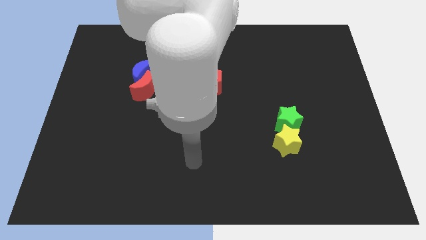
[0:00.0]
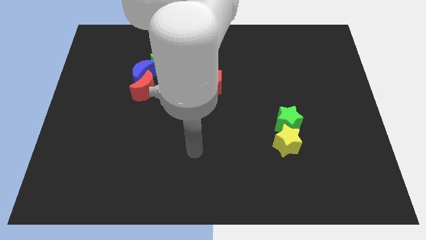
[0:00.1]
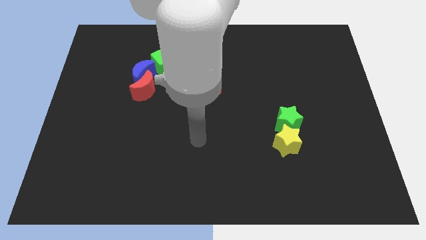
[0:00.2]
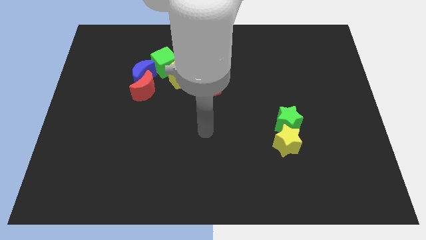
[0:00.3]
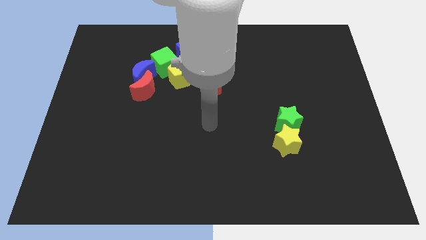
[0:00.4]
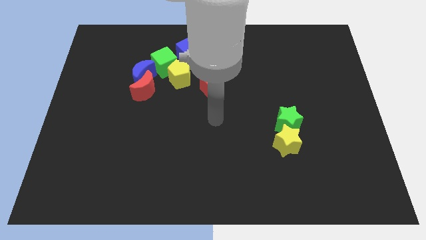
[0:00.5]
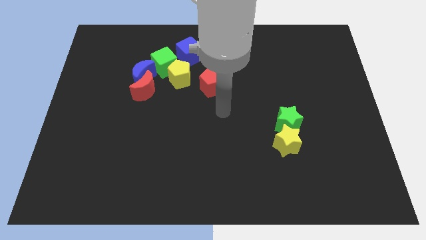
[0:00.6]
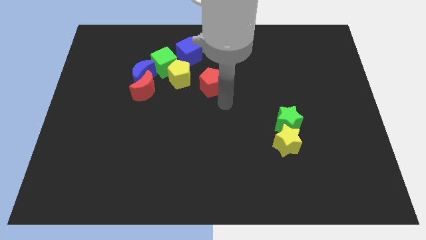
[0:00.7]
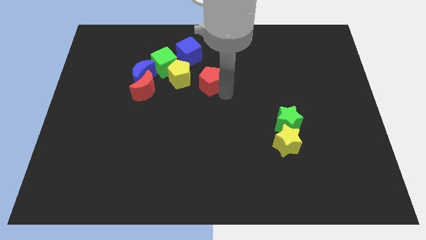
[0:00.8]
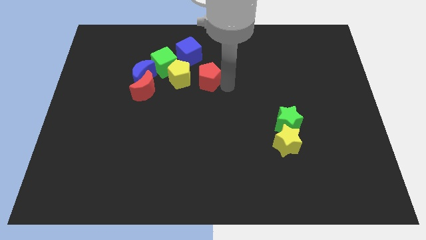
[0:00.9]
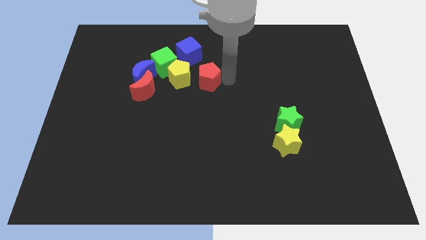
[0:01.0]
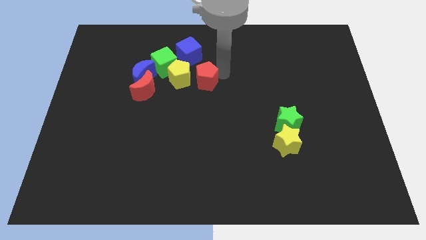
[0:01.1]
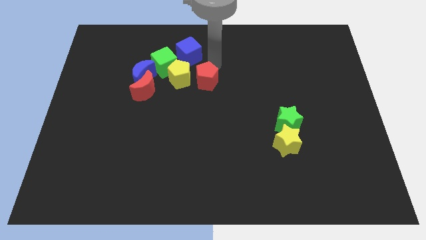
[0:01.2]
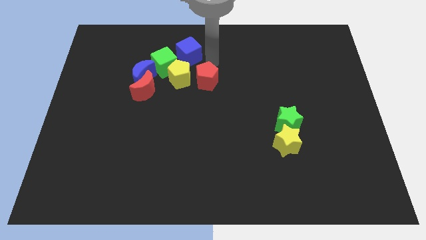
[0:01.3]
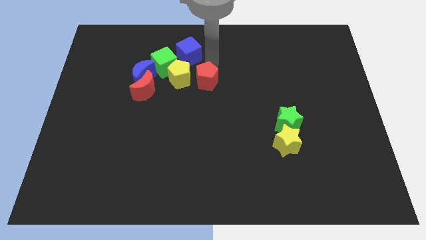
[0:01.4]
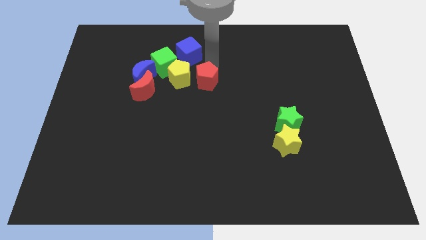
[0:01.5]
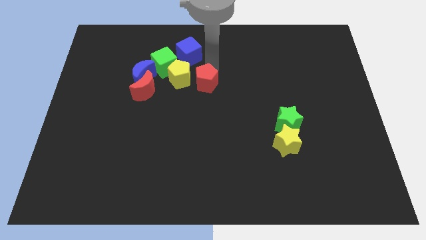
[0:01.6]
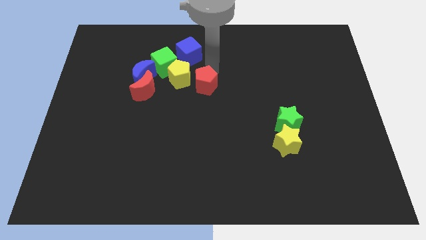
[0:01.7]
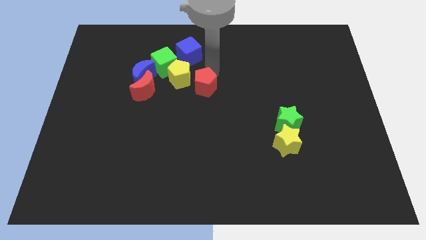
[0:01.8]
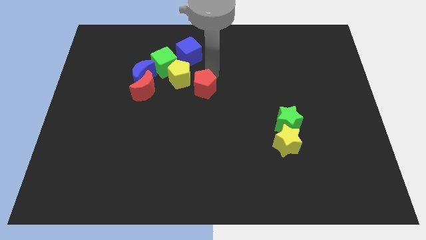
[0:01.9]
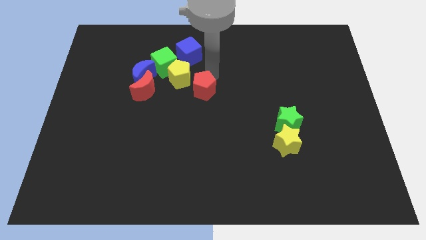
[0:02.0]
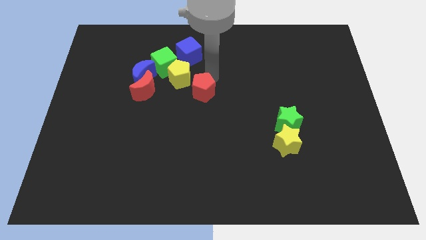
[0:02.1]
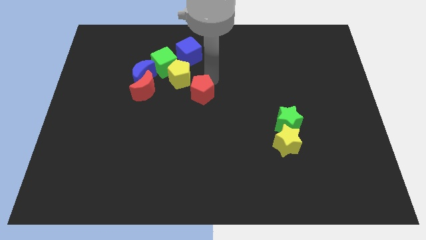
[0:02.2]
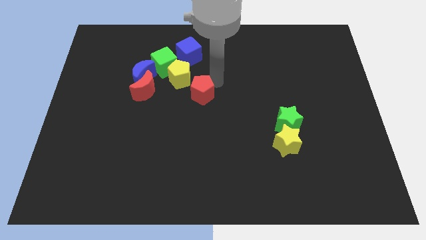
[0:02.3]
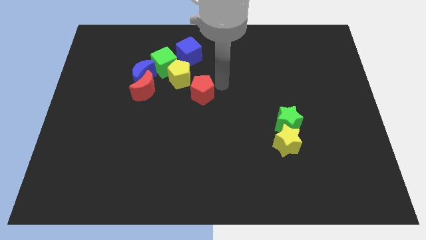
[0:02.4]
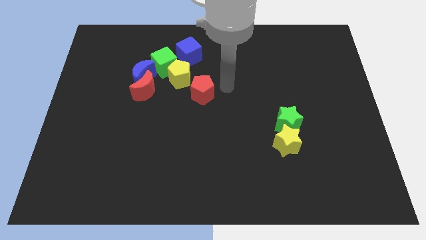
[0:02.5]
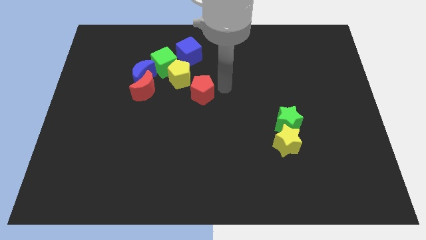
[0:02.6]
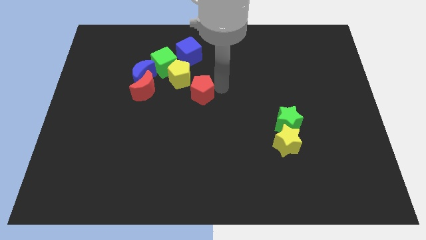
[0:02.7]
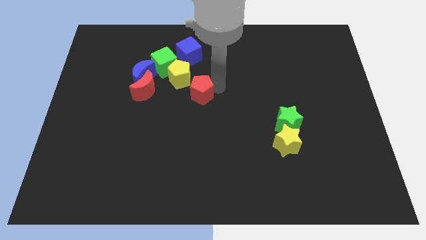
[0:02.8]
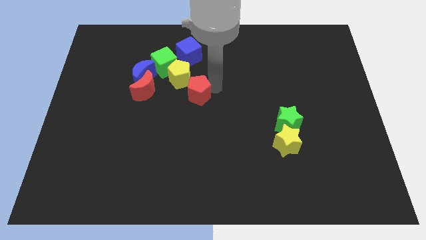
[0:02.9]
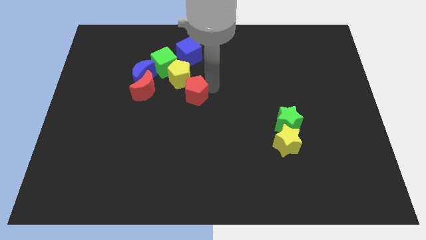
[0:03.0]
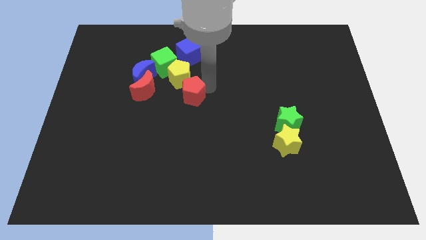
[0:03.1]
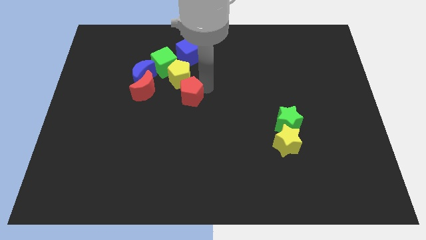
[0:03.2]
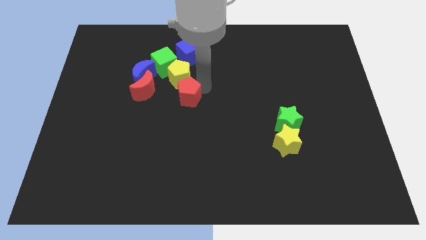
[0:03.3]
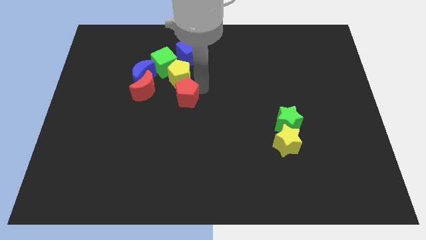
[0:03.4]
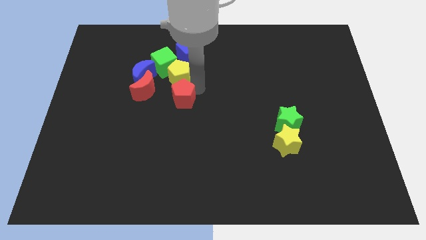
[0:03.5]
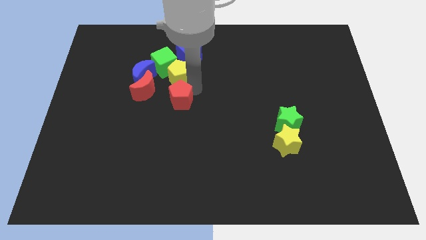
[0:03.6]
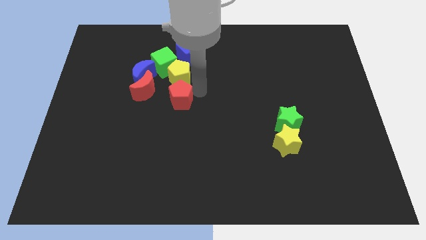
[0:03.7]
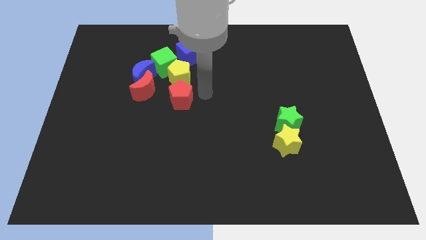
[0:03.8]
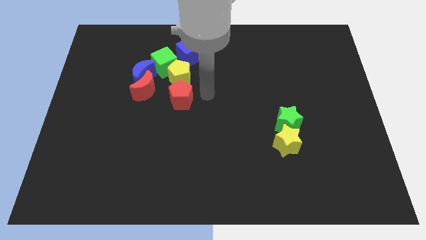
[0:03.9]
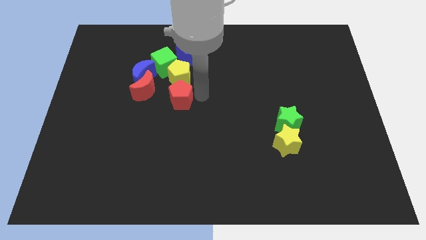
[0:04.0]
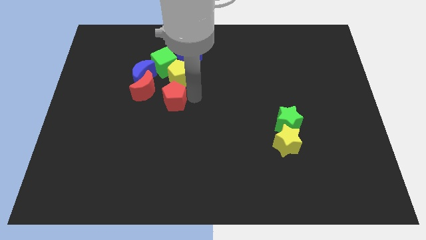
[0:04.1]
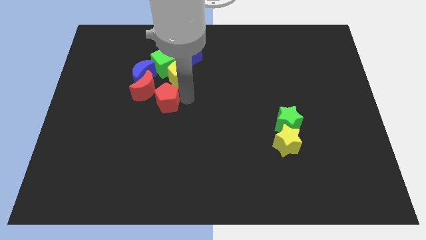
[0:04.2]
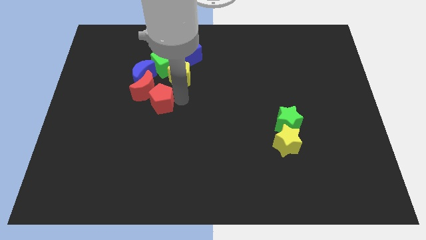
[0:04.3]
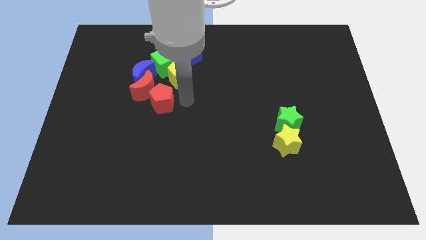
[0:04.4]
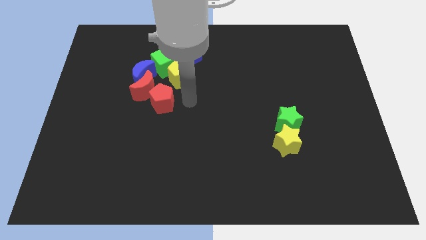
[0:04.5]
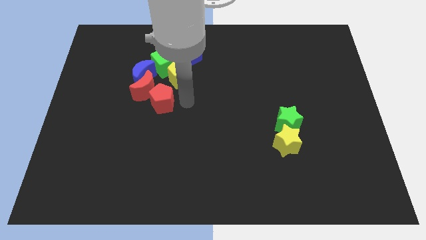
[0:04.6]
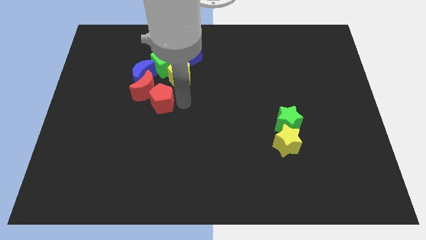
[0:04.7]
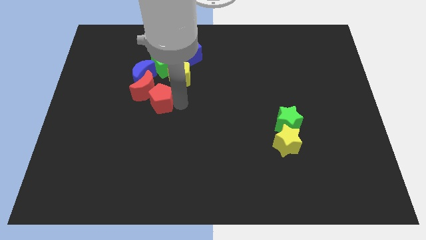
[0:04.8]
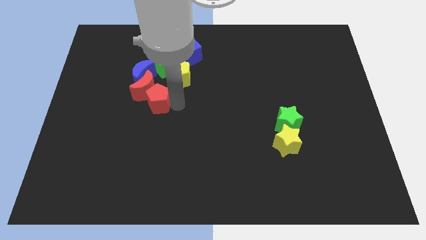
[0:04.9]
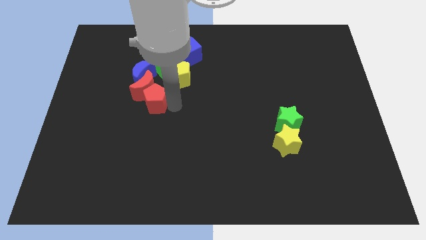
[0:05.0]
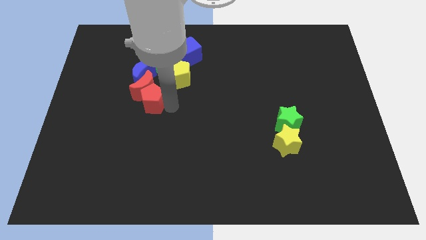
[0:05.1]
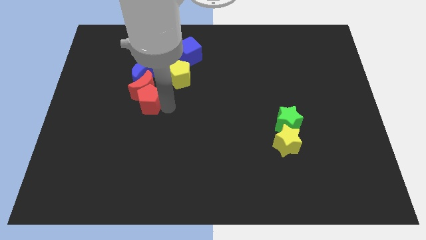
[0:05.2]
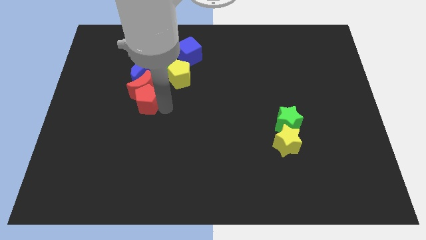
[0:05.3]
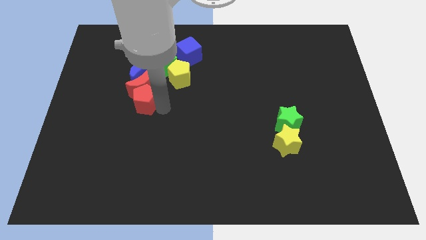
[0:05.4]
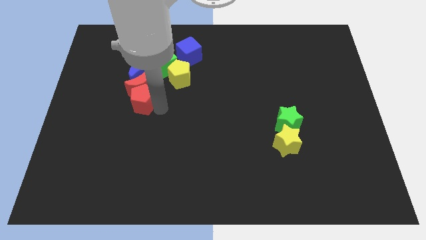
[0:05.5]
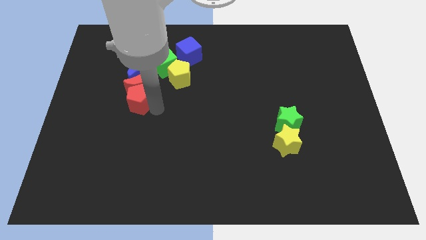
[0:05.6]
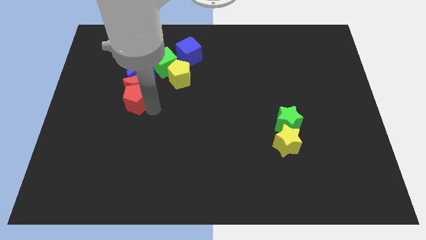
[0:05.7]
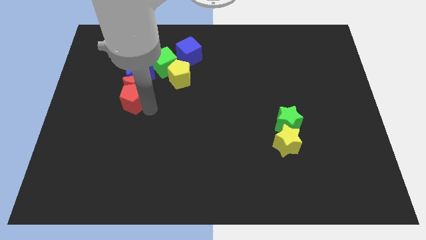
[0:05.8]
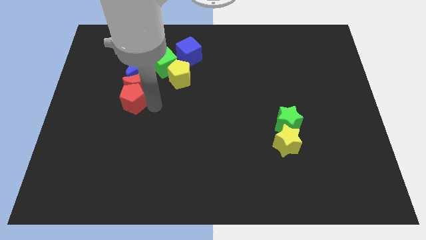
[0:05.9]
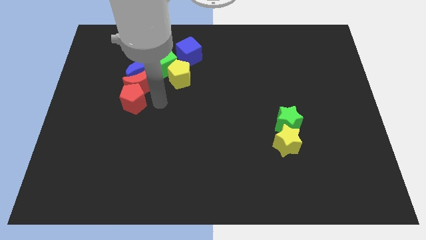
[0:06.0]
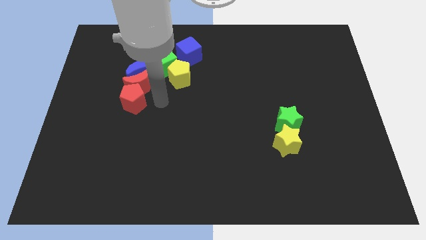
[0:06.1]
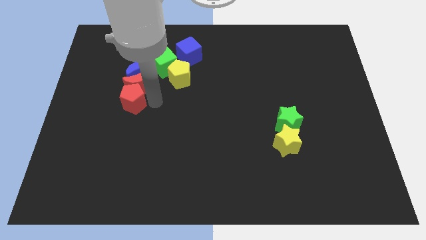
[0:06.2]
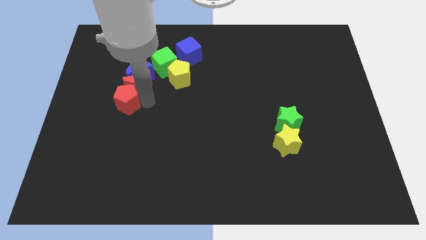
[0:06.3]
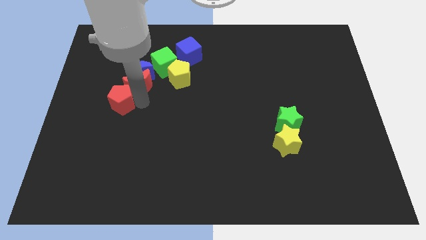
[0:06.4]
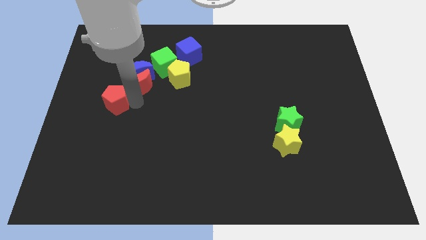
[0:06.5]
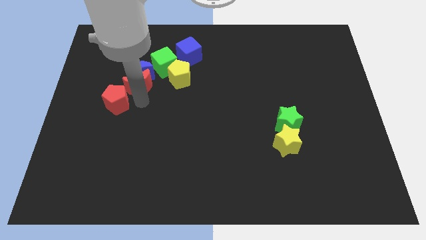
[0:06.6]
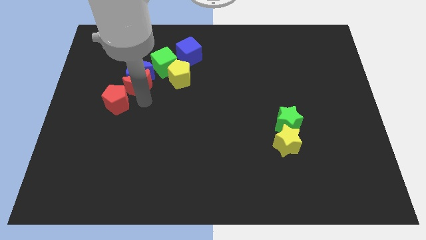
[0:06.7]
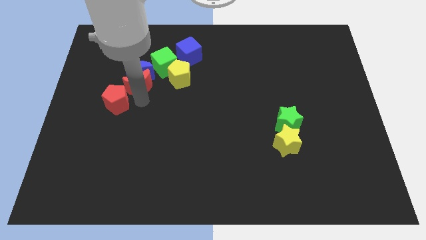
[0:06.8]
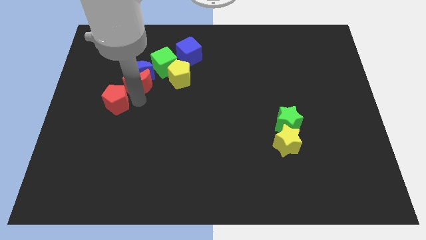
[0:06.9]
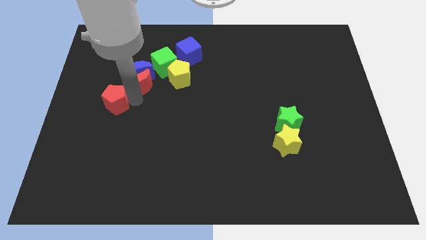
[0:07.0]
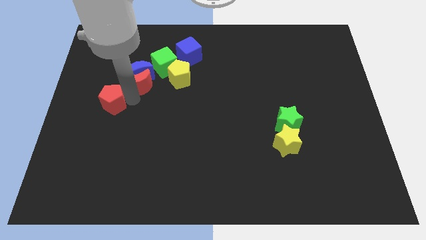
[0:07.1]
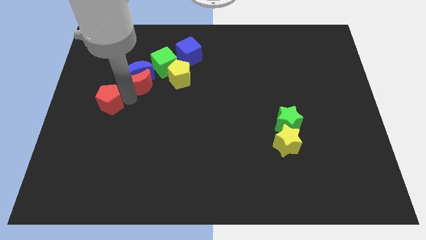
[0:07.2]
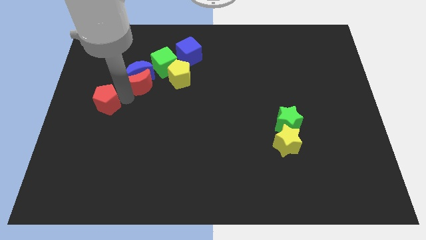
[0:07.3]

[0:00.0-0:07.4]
slide the red pentagon to the center left

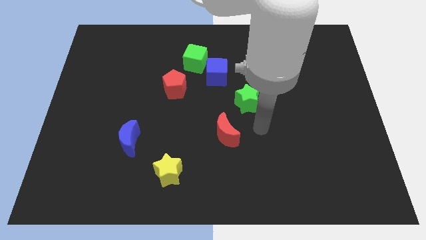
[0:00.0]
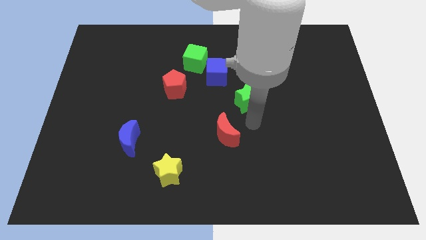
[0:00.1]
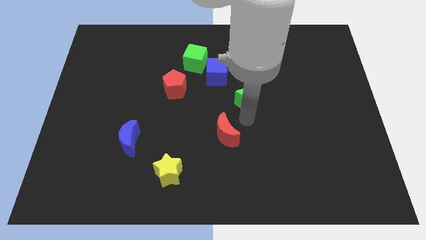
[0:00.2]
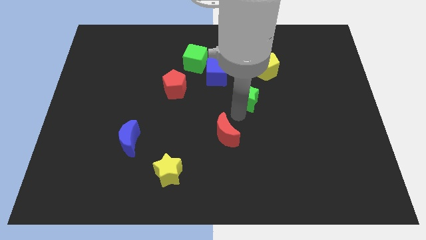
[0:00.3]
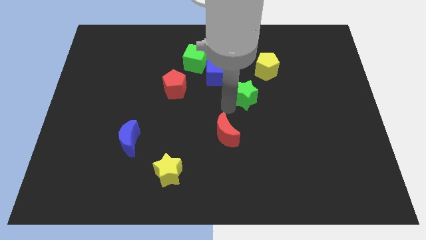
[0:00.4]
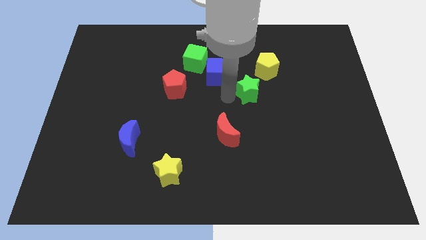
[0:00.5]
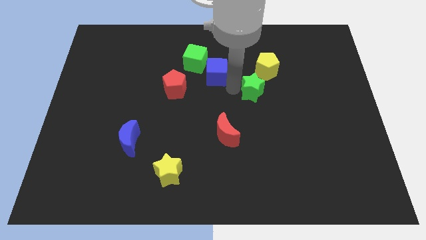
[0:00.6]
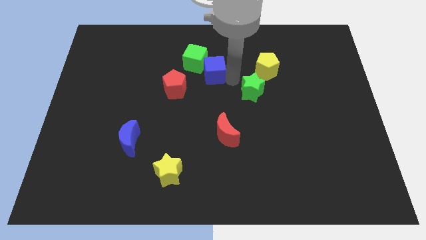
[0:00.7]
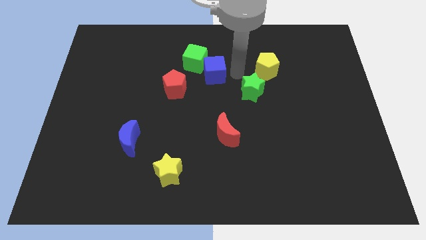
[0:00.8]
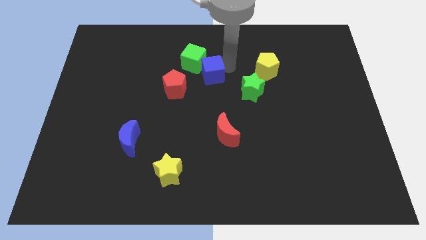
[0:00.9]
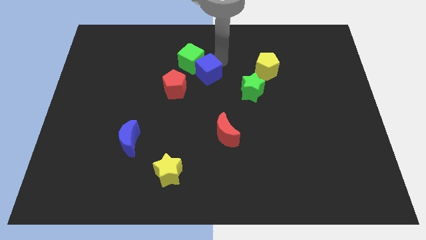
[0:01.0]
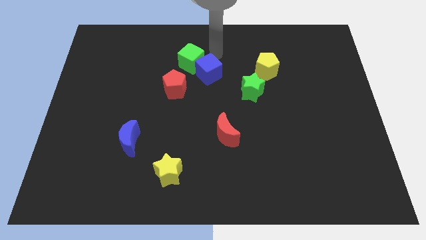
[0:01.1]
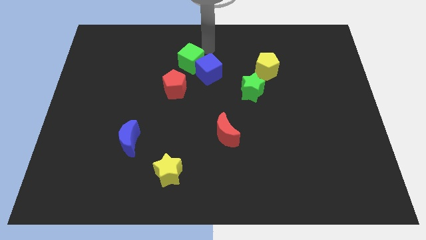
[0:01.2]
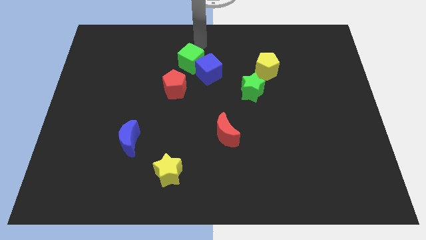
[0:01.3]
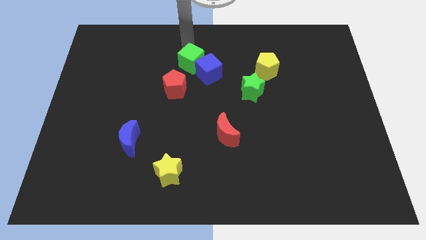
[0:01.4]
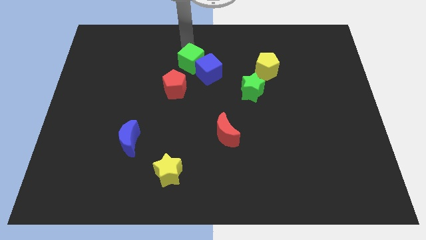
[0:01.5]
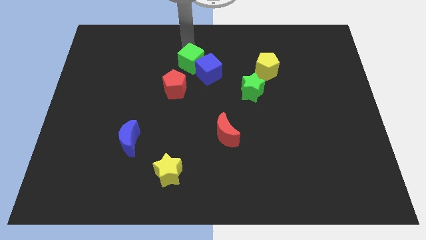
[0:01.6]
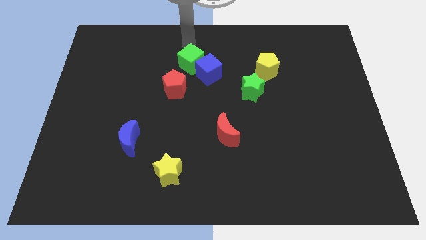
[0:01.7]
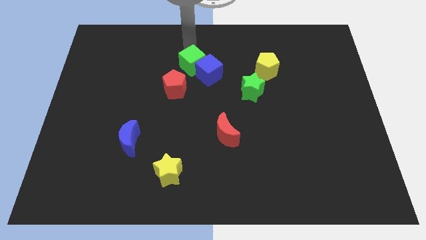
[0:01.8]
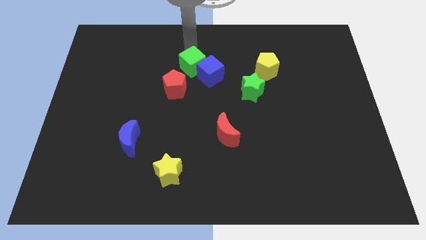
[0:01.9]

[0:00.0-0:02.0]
push the green cube to the center
